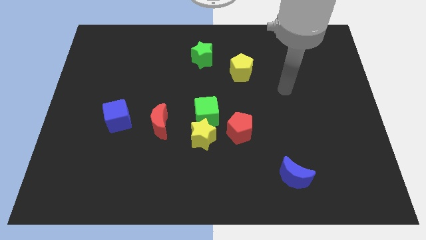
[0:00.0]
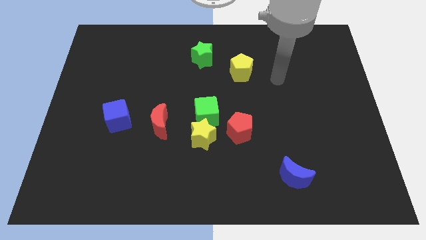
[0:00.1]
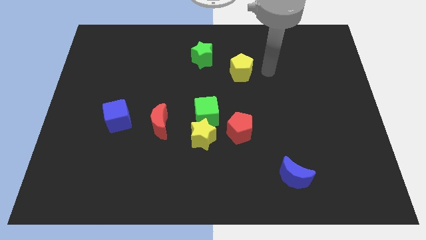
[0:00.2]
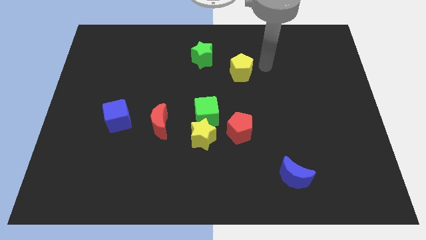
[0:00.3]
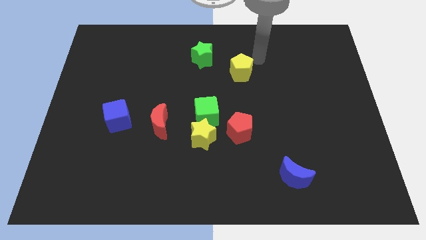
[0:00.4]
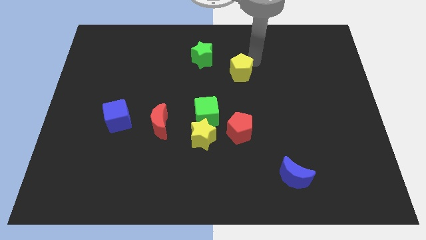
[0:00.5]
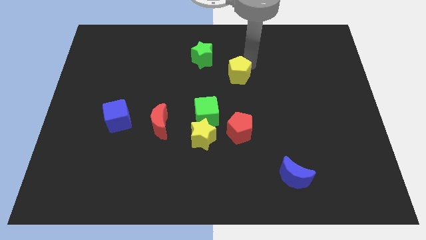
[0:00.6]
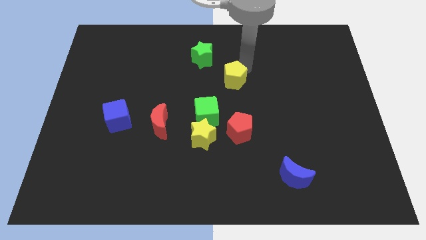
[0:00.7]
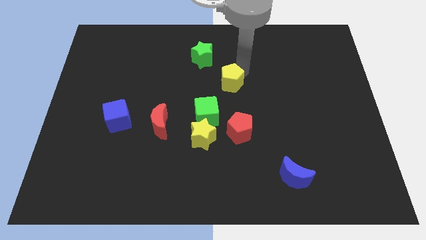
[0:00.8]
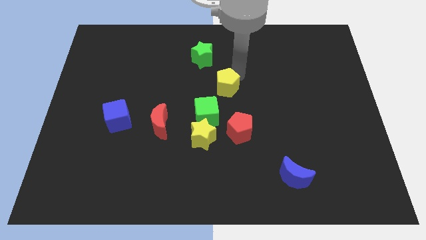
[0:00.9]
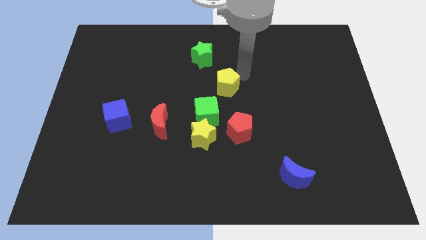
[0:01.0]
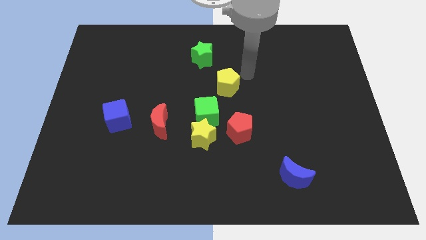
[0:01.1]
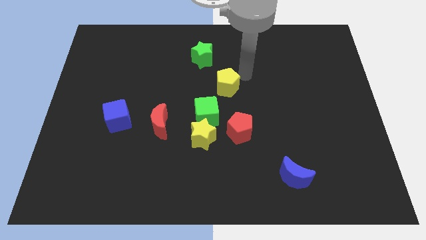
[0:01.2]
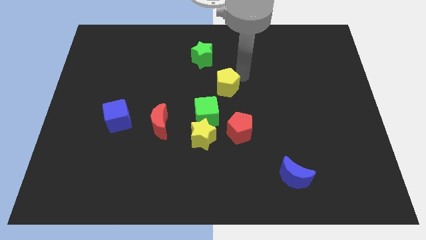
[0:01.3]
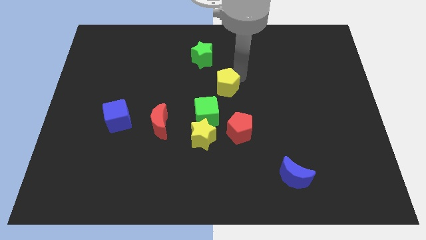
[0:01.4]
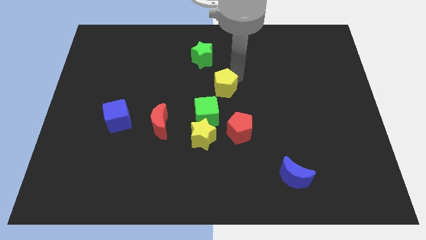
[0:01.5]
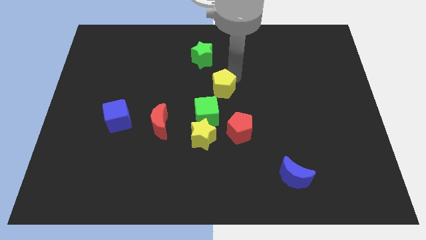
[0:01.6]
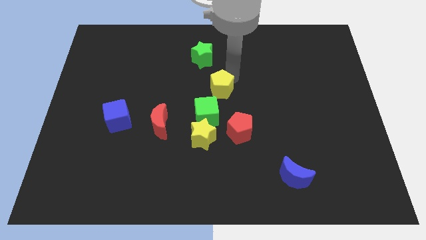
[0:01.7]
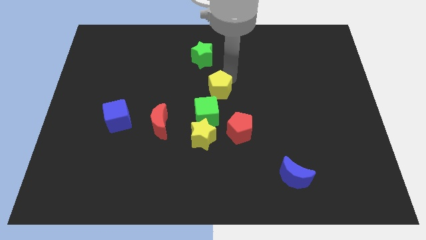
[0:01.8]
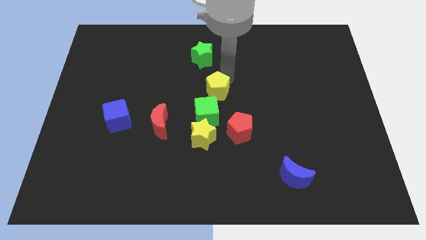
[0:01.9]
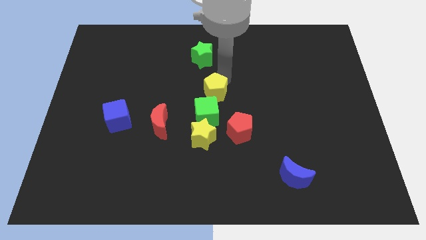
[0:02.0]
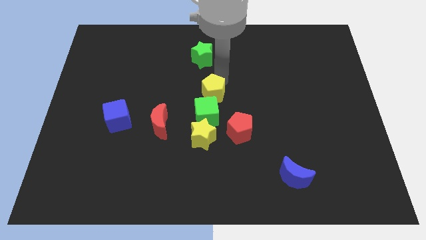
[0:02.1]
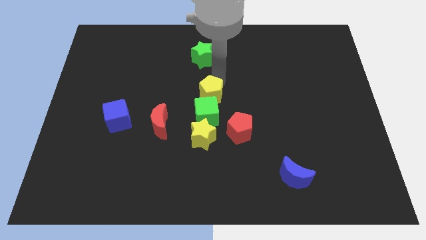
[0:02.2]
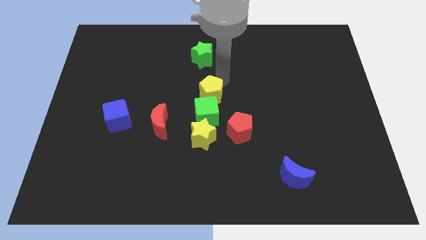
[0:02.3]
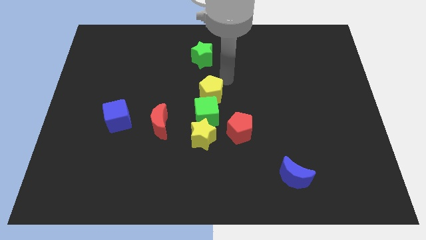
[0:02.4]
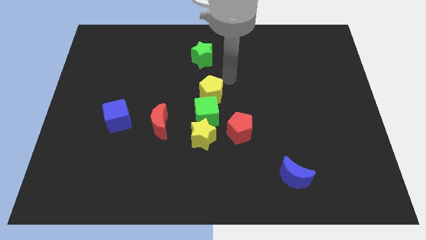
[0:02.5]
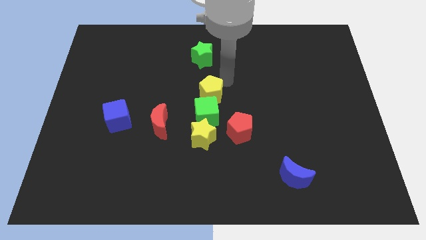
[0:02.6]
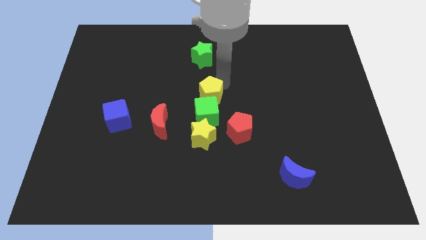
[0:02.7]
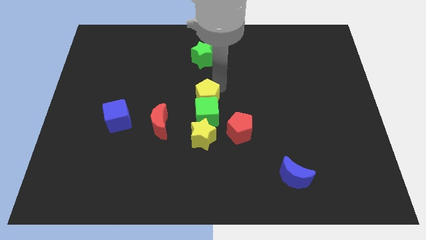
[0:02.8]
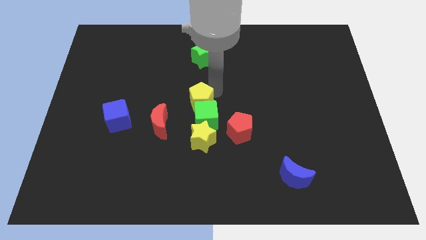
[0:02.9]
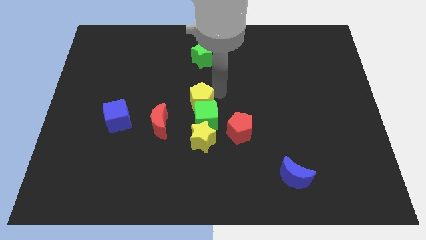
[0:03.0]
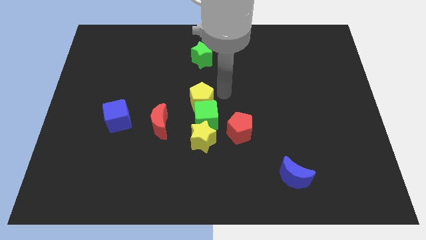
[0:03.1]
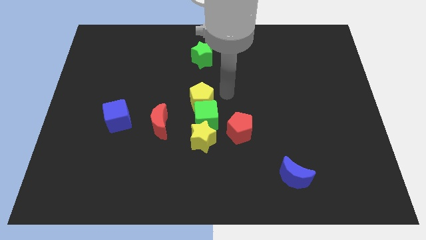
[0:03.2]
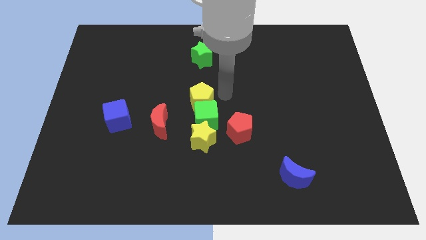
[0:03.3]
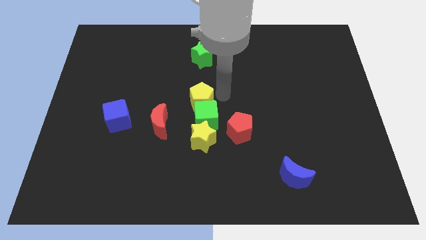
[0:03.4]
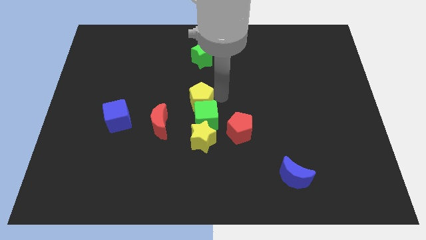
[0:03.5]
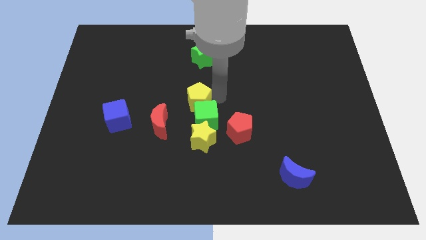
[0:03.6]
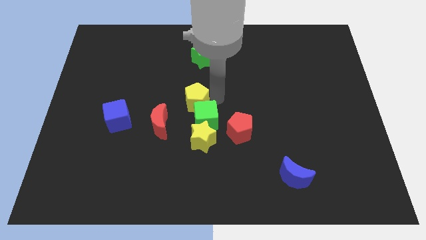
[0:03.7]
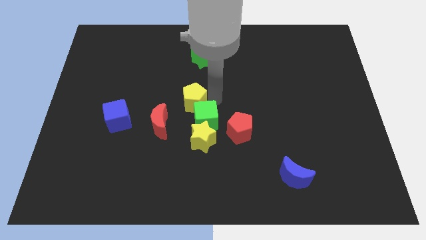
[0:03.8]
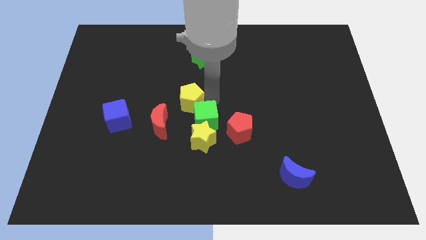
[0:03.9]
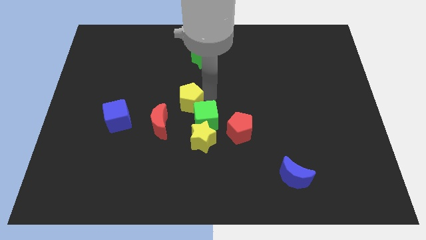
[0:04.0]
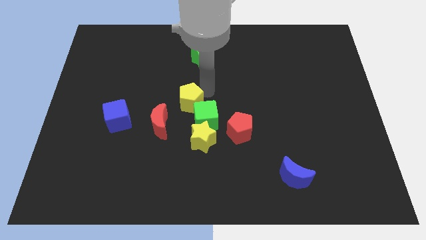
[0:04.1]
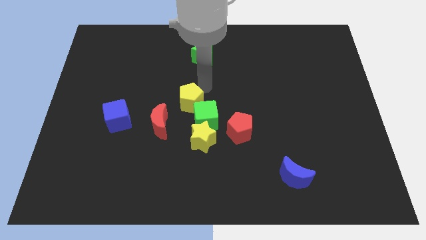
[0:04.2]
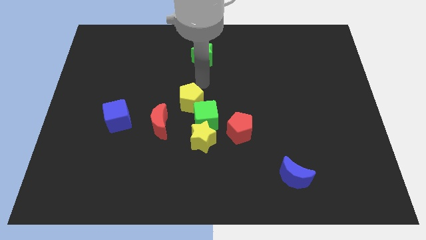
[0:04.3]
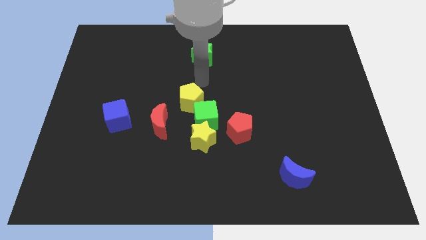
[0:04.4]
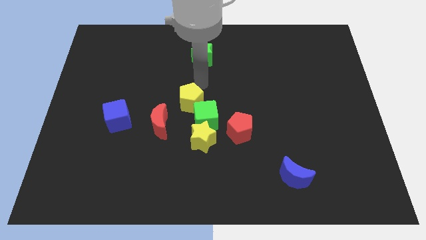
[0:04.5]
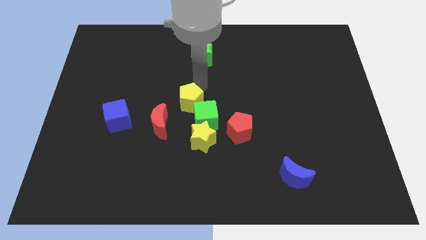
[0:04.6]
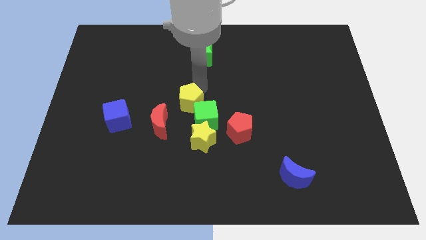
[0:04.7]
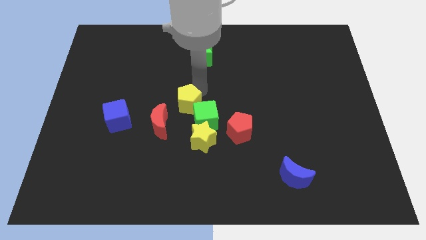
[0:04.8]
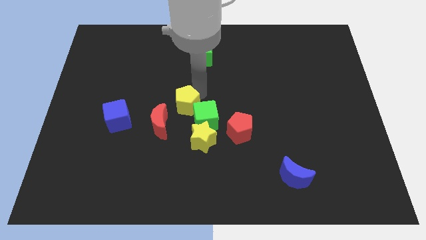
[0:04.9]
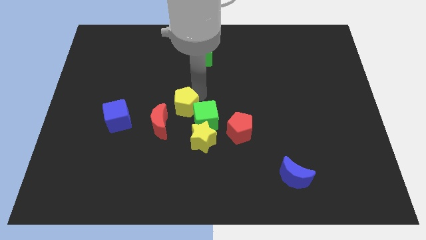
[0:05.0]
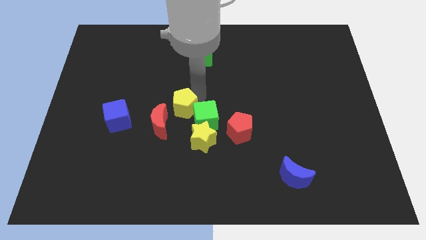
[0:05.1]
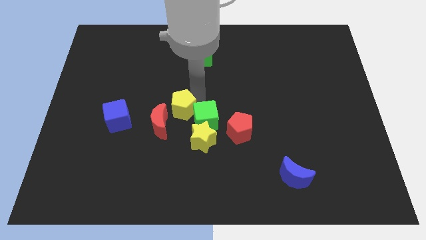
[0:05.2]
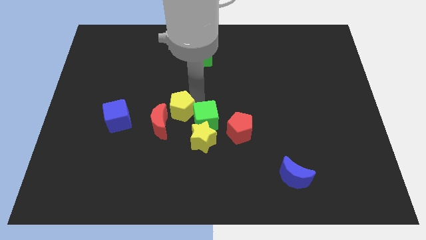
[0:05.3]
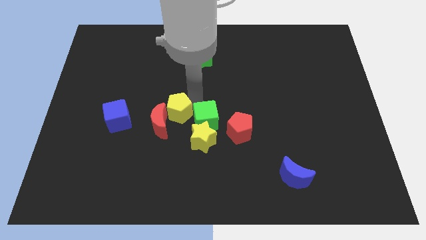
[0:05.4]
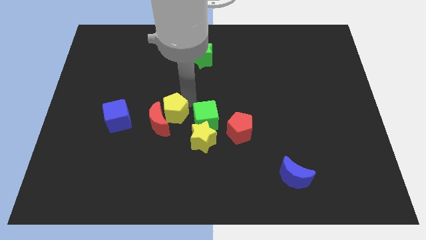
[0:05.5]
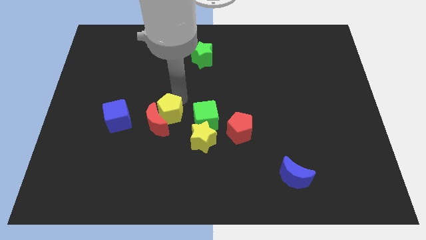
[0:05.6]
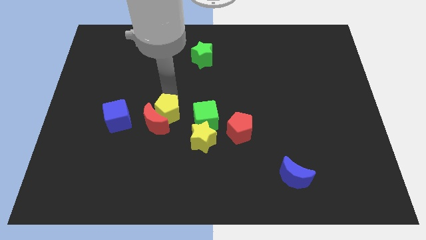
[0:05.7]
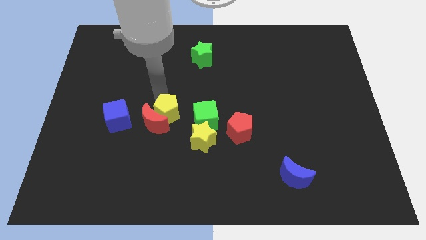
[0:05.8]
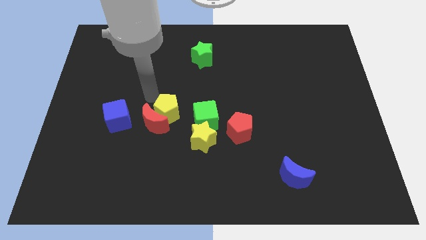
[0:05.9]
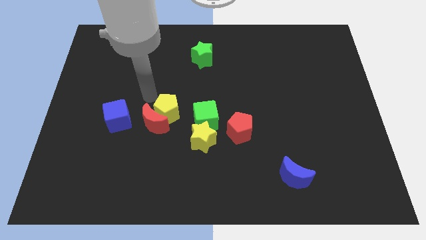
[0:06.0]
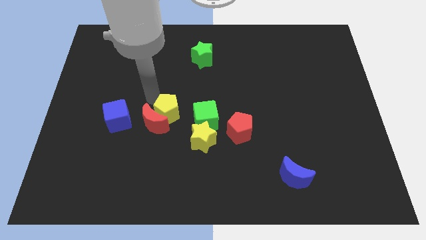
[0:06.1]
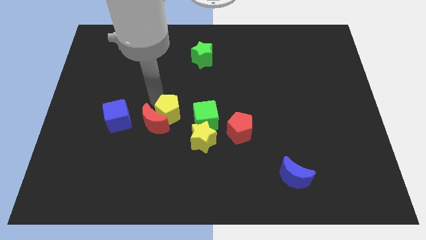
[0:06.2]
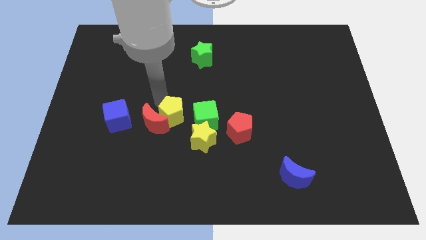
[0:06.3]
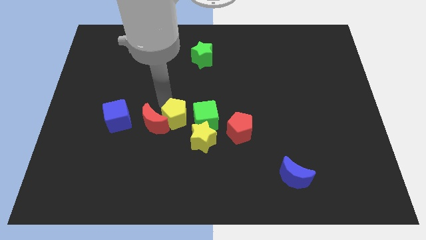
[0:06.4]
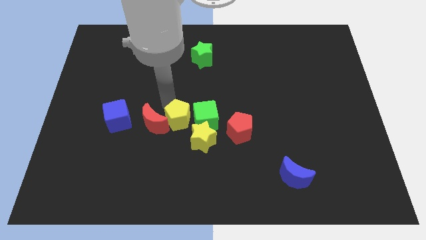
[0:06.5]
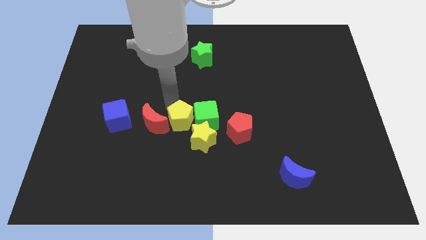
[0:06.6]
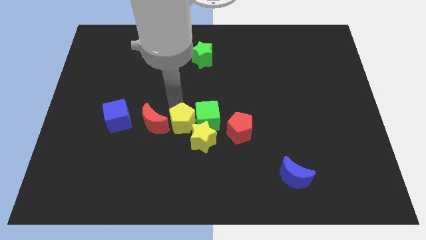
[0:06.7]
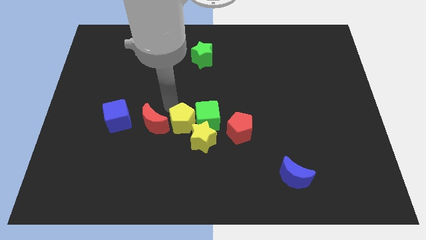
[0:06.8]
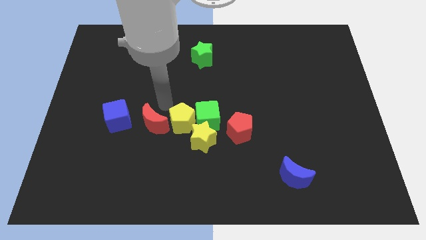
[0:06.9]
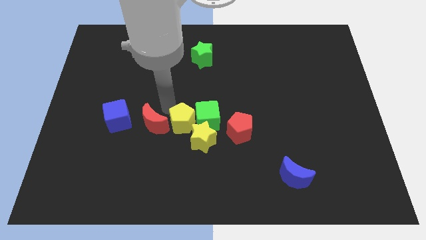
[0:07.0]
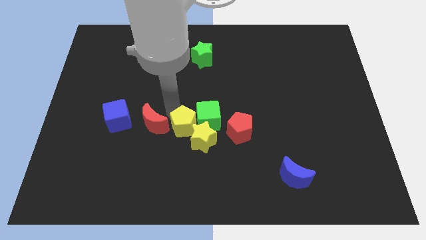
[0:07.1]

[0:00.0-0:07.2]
push the yellow pentagon towards the yellow star
